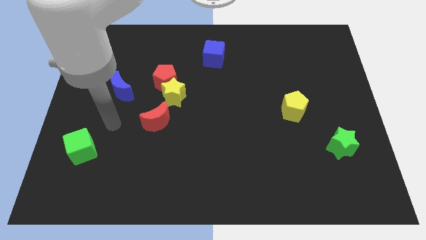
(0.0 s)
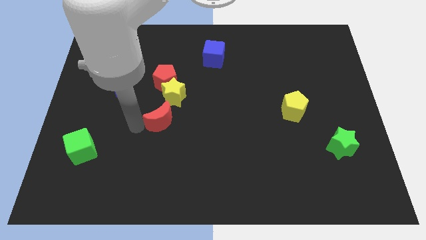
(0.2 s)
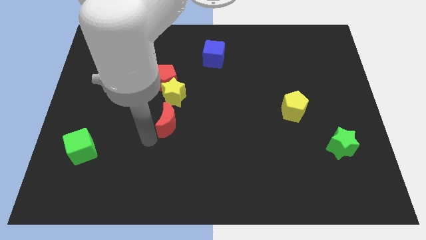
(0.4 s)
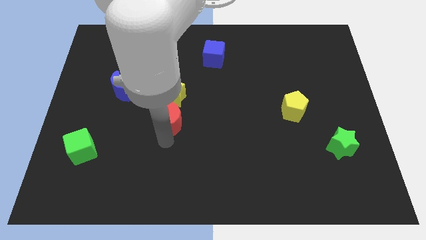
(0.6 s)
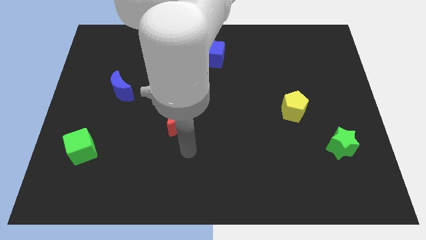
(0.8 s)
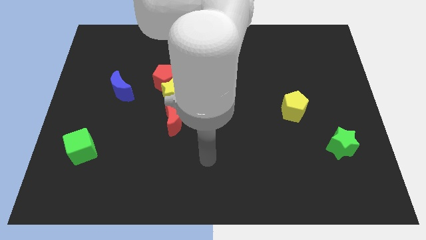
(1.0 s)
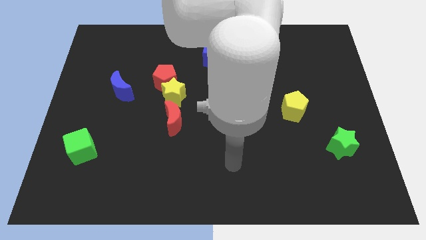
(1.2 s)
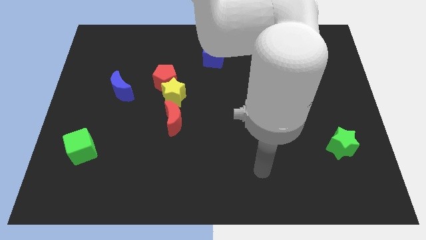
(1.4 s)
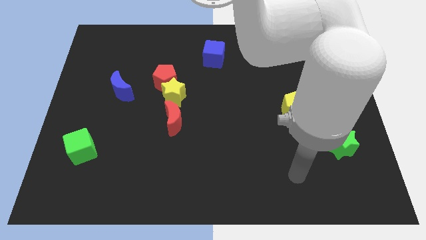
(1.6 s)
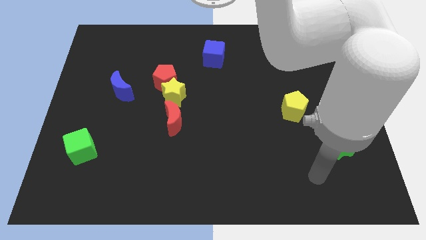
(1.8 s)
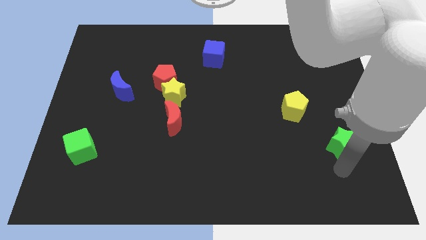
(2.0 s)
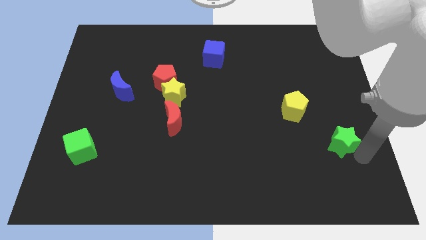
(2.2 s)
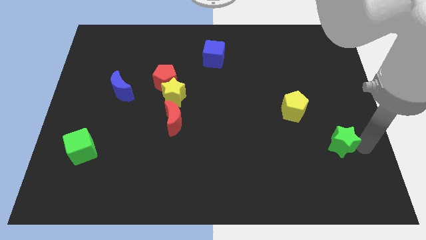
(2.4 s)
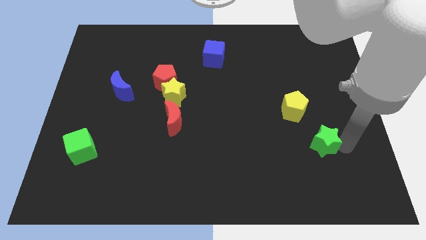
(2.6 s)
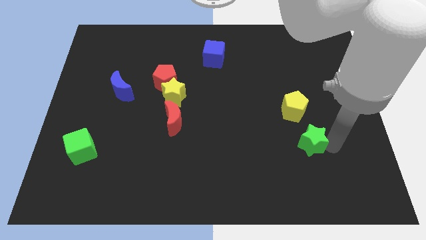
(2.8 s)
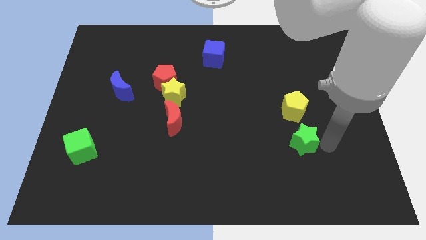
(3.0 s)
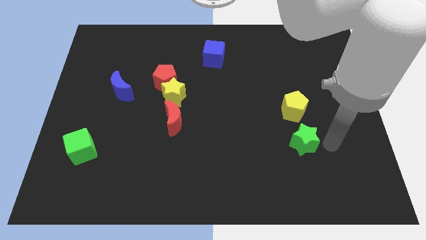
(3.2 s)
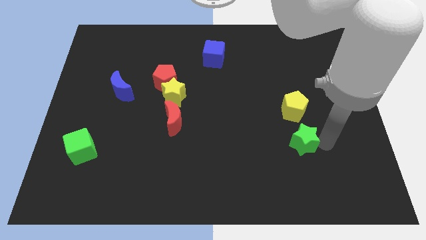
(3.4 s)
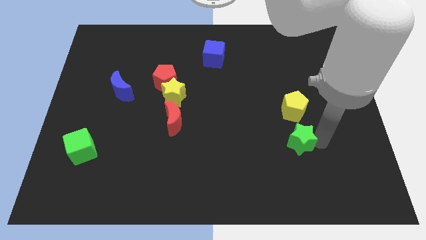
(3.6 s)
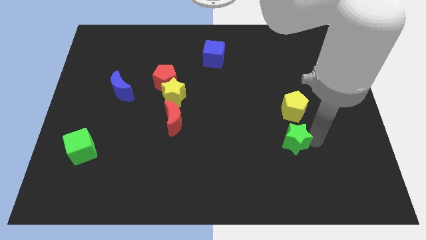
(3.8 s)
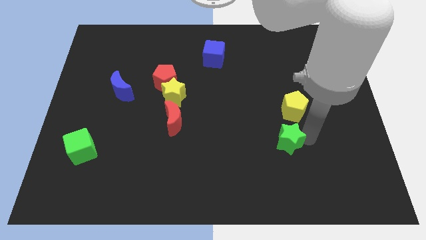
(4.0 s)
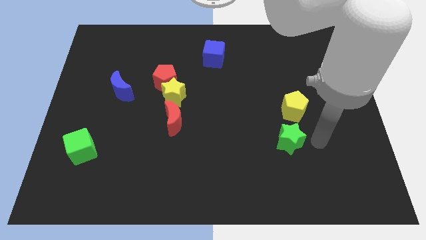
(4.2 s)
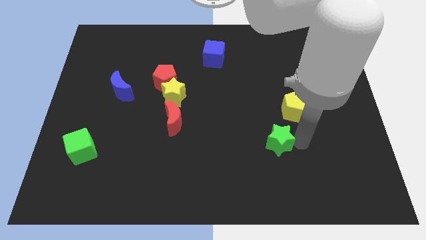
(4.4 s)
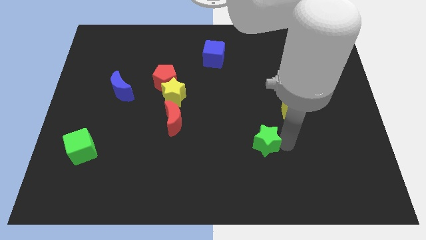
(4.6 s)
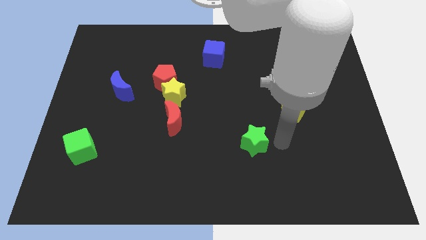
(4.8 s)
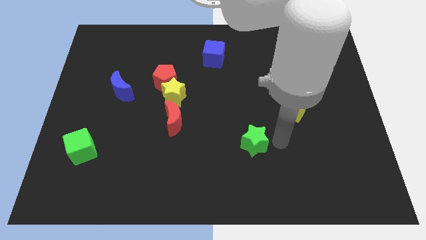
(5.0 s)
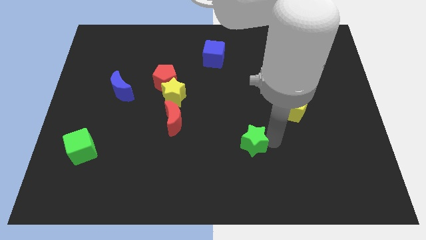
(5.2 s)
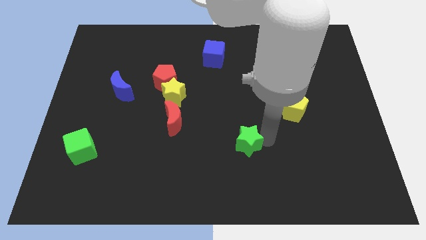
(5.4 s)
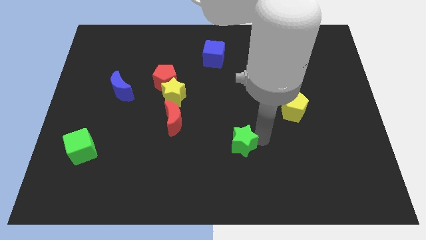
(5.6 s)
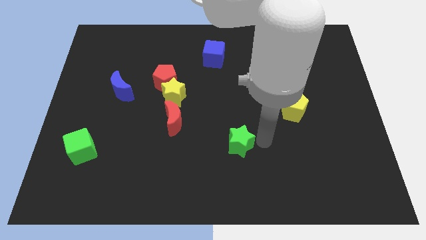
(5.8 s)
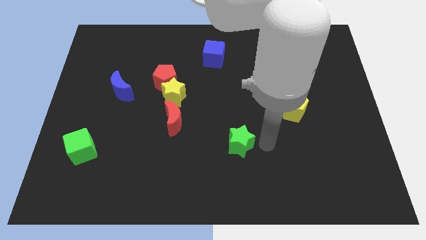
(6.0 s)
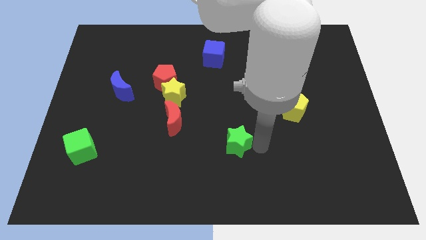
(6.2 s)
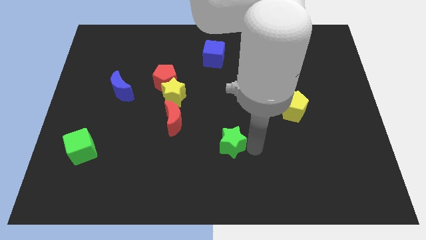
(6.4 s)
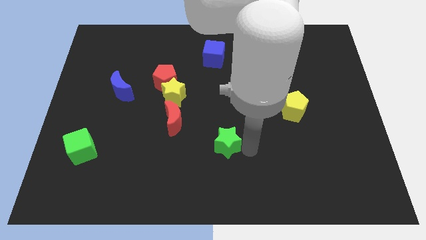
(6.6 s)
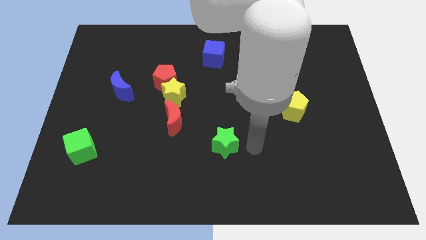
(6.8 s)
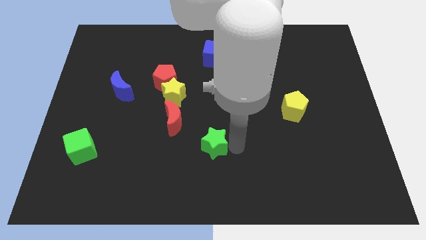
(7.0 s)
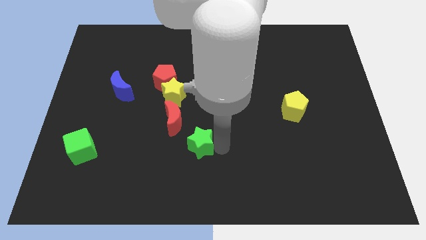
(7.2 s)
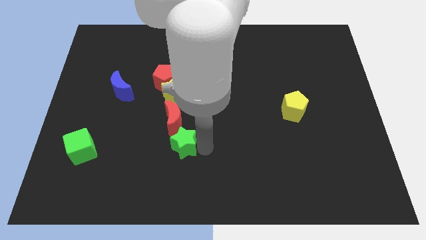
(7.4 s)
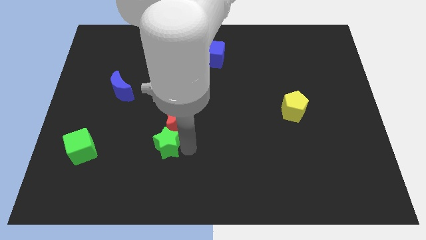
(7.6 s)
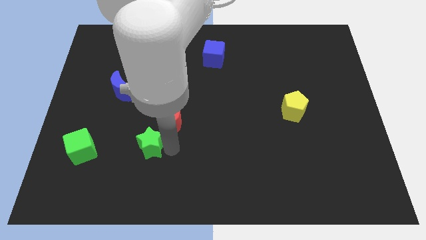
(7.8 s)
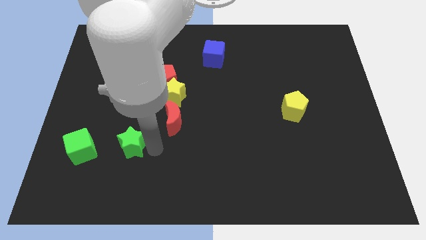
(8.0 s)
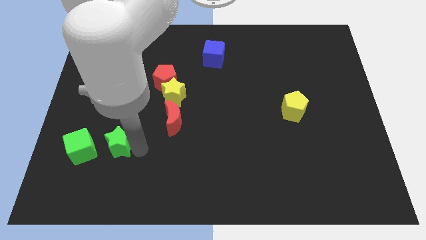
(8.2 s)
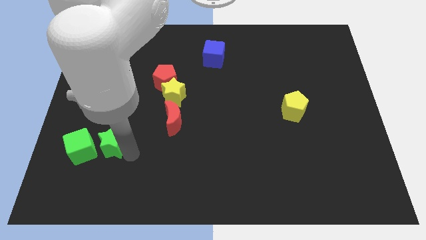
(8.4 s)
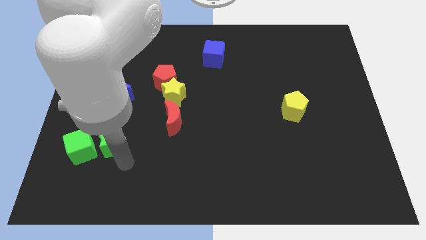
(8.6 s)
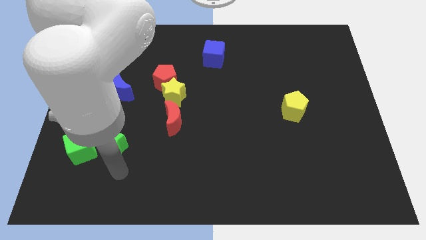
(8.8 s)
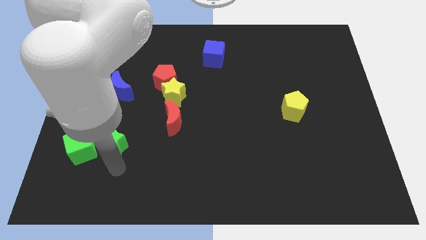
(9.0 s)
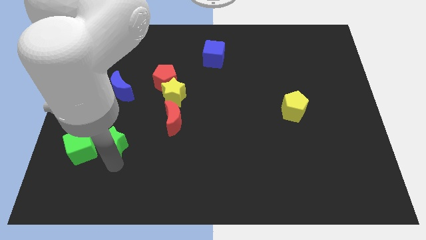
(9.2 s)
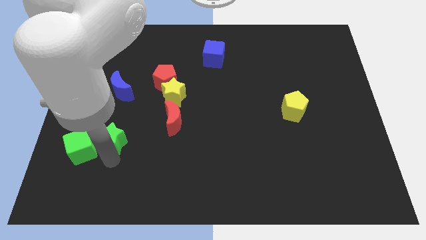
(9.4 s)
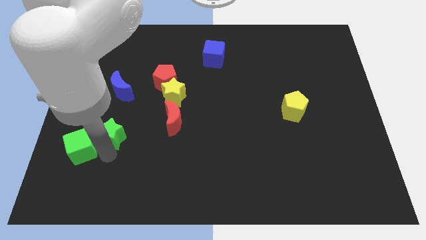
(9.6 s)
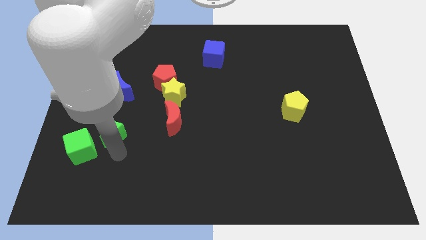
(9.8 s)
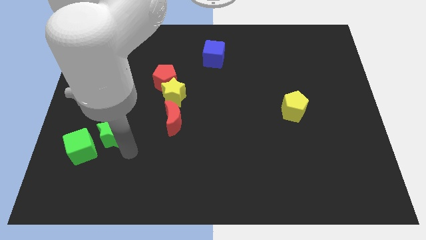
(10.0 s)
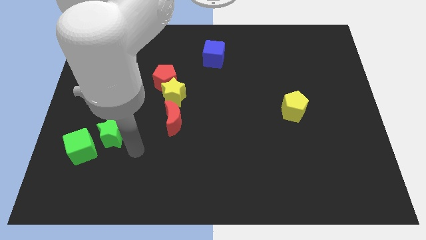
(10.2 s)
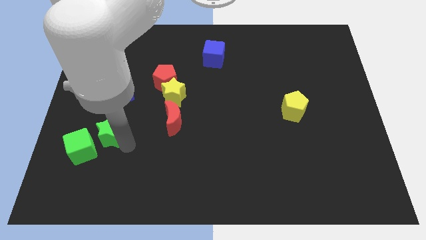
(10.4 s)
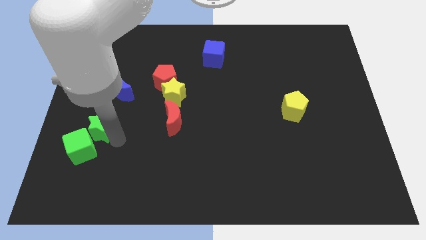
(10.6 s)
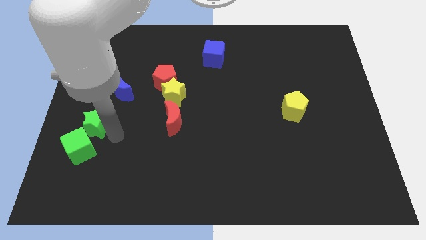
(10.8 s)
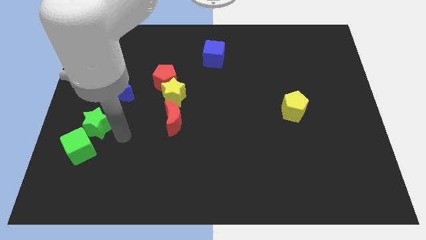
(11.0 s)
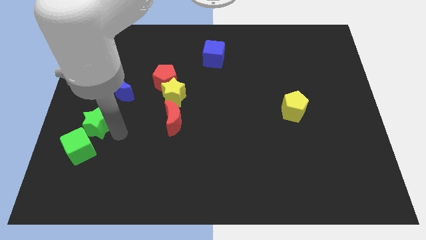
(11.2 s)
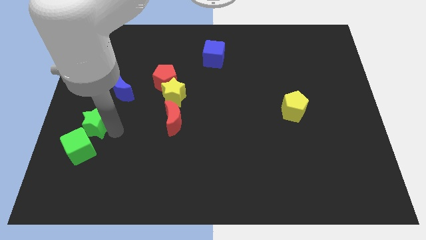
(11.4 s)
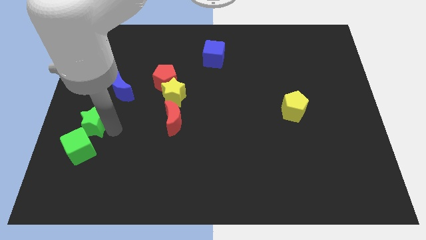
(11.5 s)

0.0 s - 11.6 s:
move the green star to the center left
